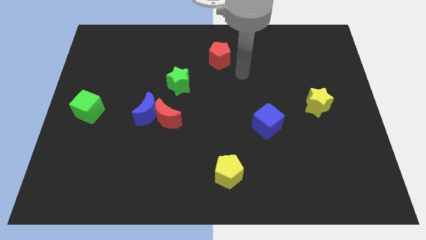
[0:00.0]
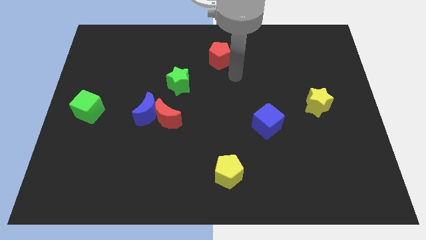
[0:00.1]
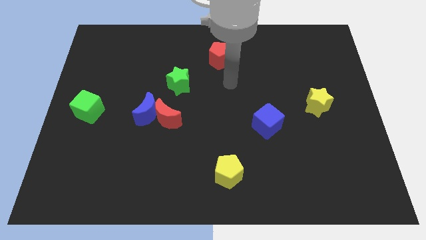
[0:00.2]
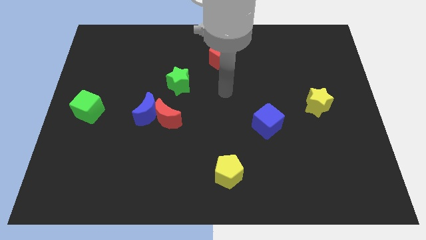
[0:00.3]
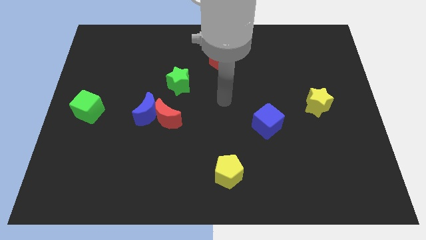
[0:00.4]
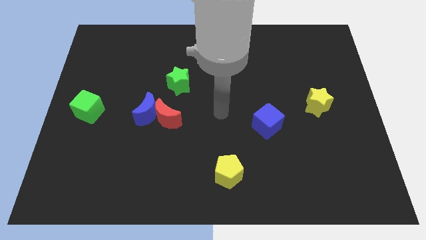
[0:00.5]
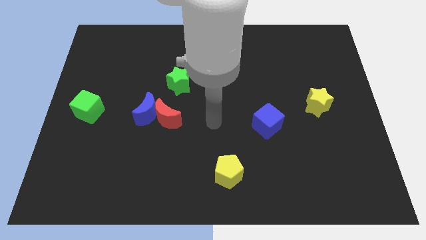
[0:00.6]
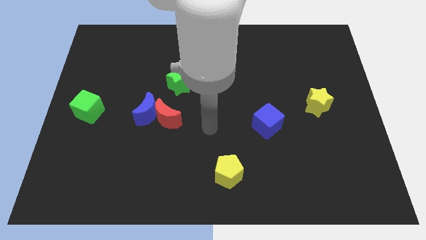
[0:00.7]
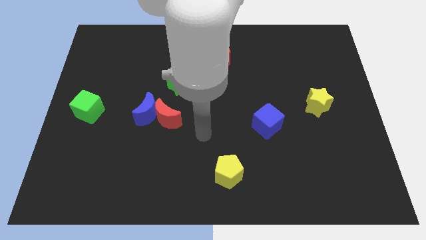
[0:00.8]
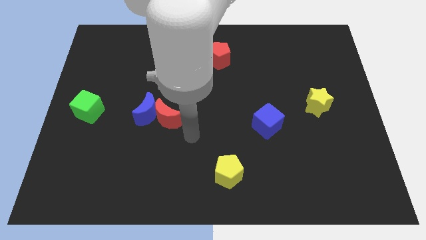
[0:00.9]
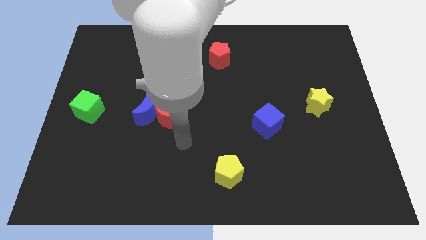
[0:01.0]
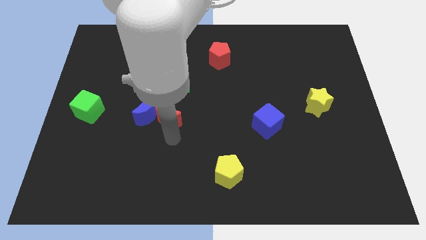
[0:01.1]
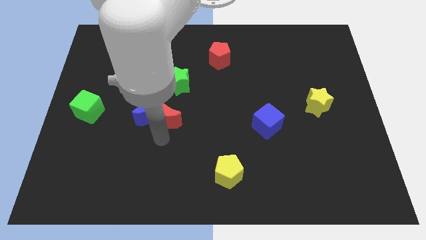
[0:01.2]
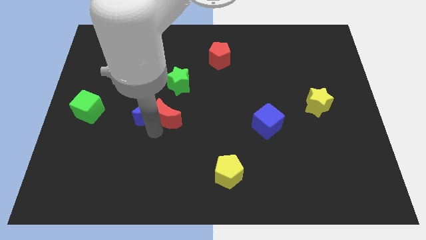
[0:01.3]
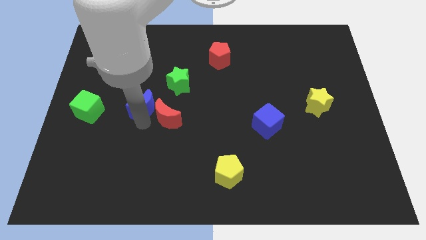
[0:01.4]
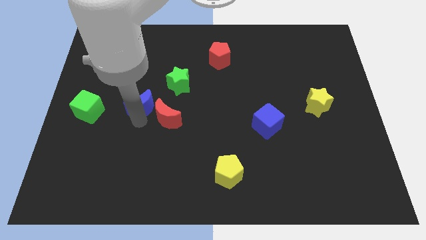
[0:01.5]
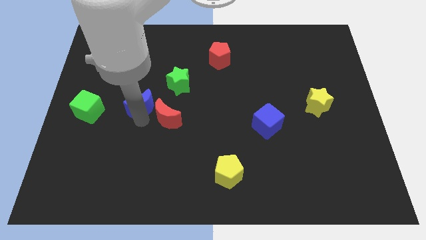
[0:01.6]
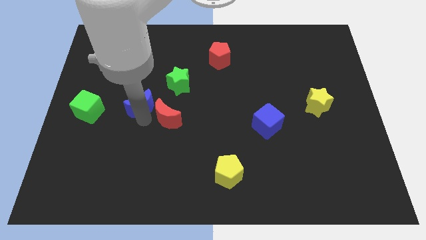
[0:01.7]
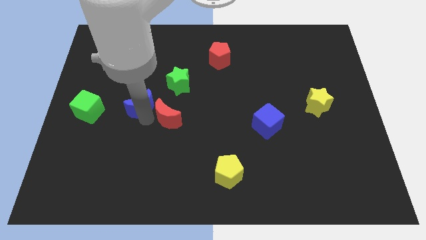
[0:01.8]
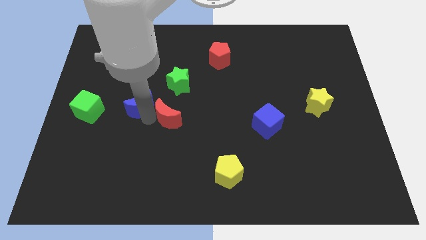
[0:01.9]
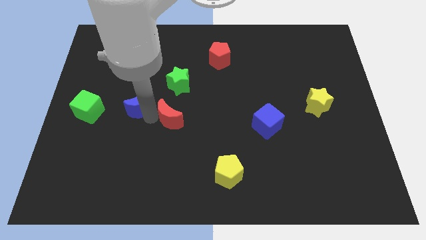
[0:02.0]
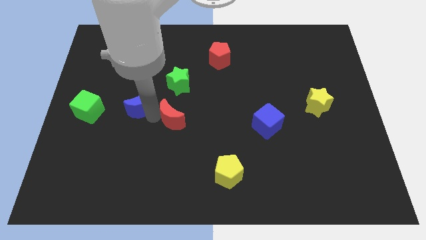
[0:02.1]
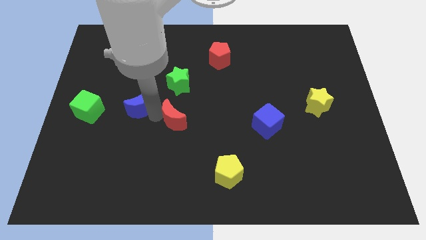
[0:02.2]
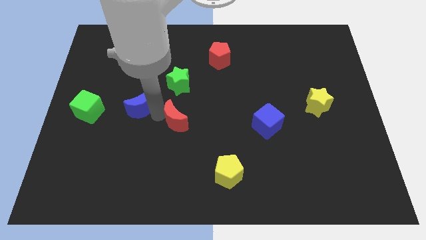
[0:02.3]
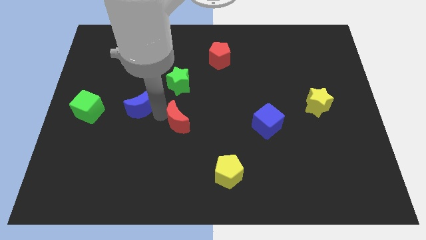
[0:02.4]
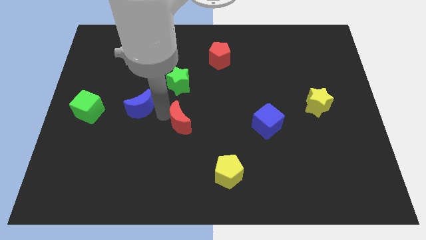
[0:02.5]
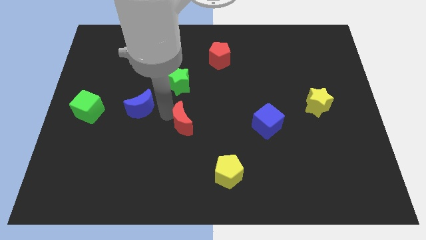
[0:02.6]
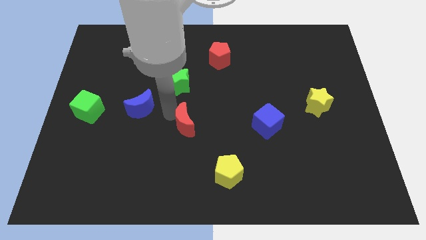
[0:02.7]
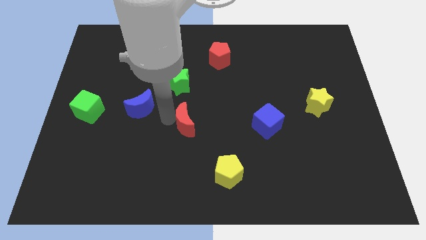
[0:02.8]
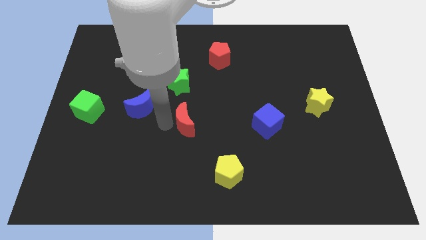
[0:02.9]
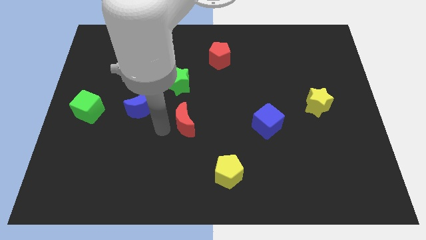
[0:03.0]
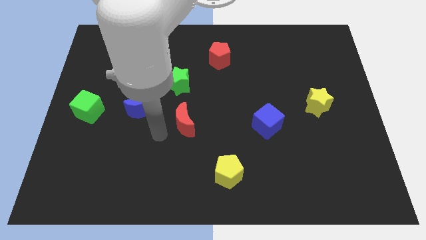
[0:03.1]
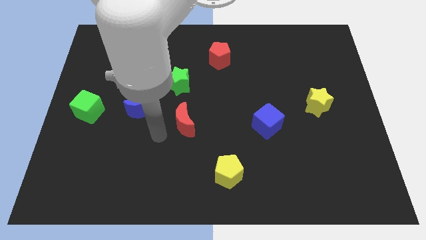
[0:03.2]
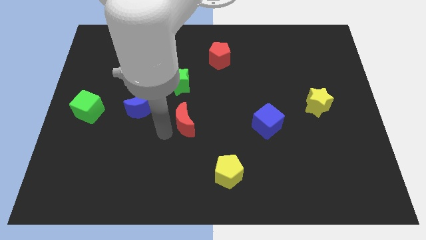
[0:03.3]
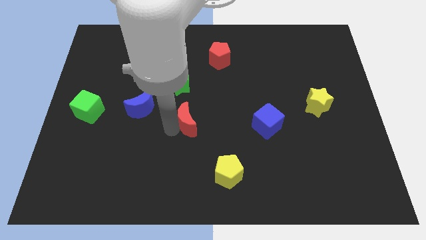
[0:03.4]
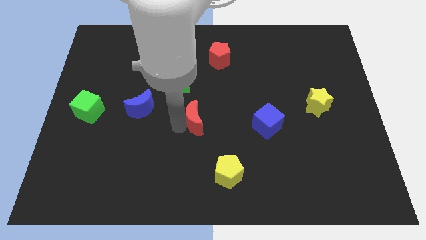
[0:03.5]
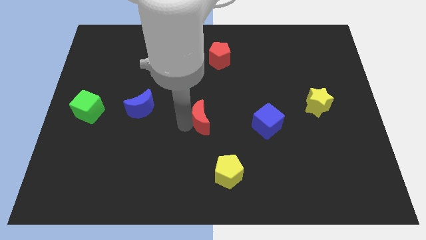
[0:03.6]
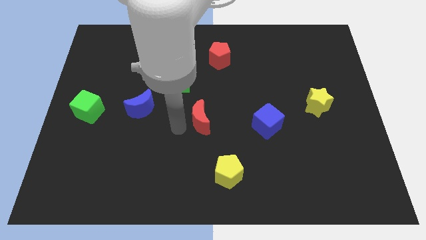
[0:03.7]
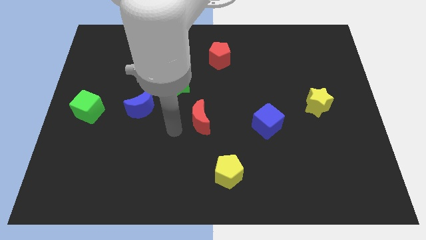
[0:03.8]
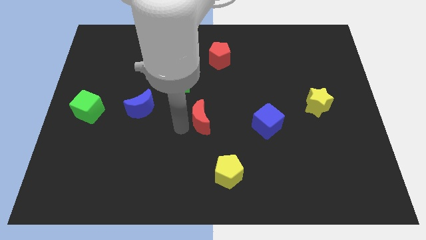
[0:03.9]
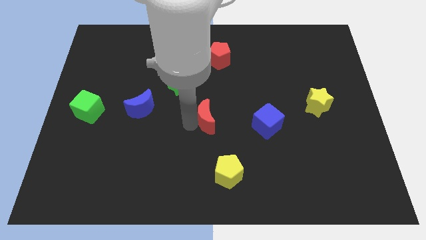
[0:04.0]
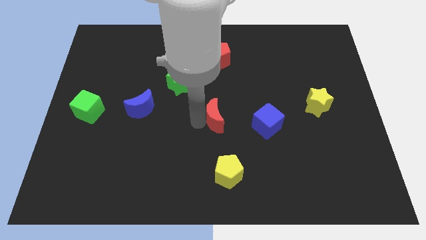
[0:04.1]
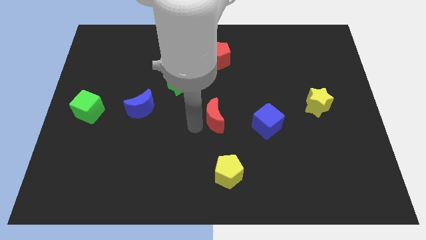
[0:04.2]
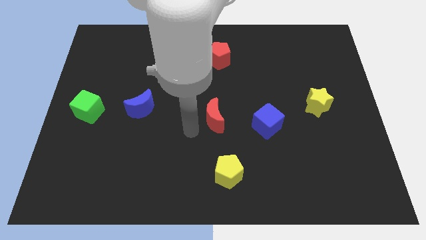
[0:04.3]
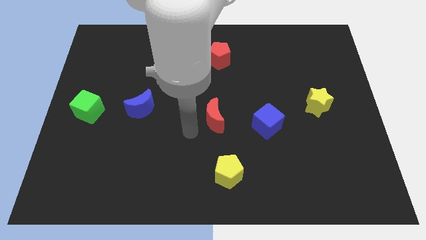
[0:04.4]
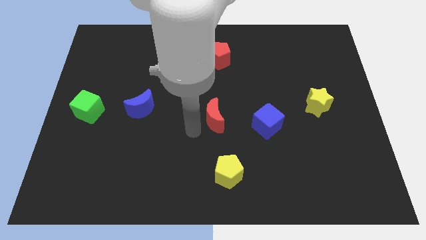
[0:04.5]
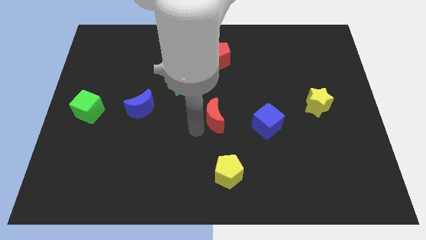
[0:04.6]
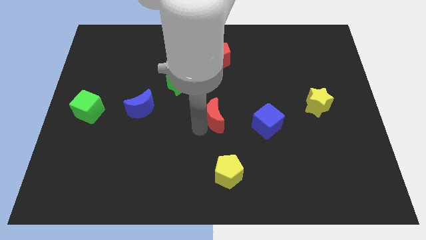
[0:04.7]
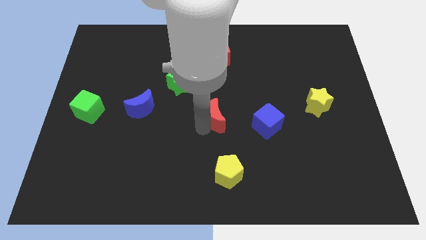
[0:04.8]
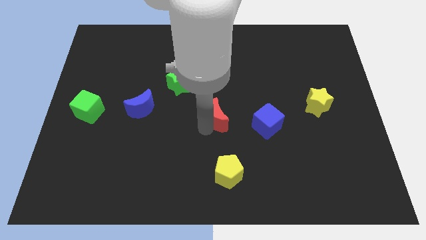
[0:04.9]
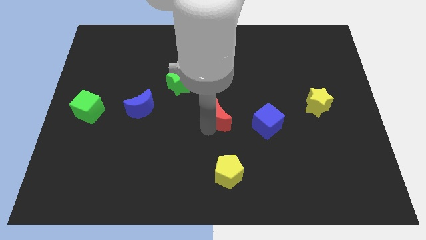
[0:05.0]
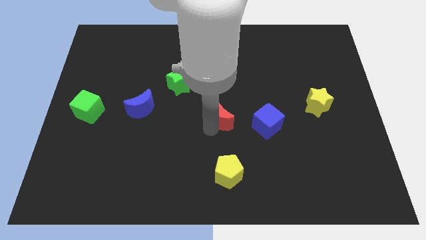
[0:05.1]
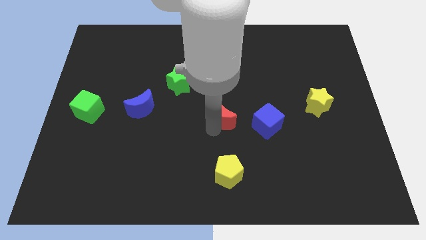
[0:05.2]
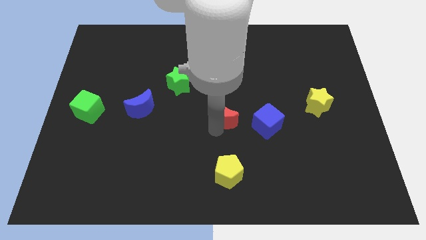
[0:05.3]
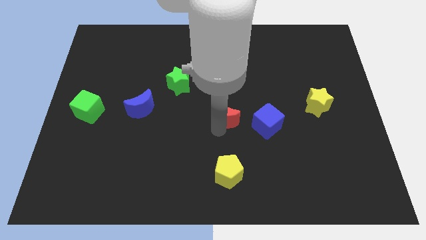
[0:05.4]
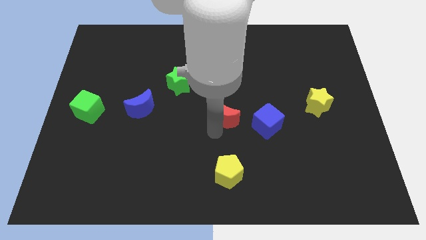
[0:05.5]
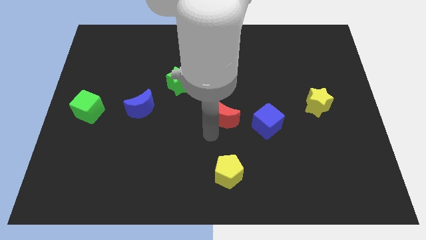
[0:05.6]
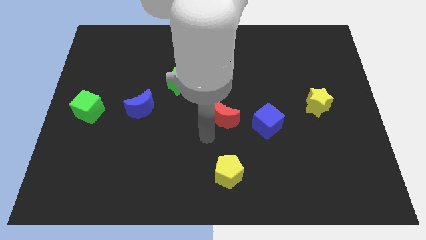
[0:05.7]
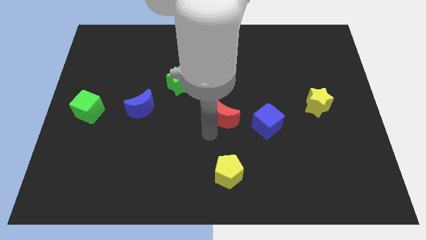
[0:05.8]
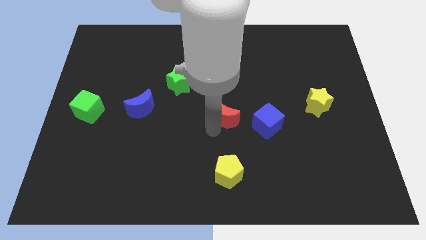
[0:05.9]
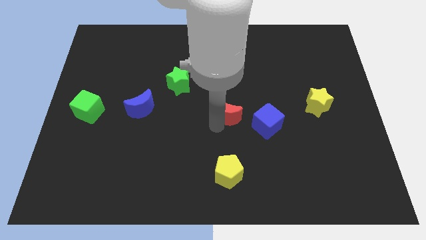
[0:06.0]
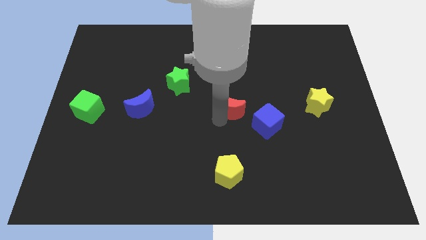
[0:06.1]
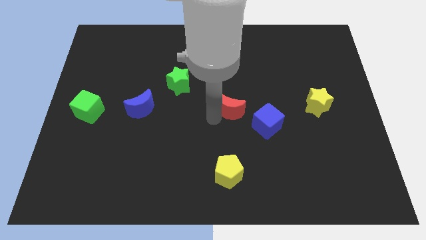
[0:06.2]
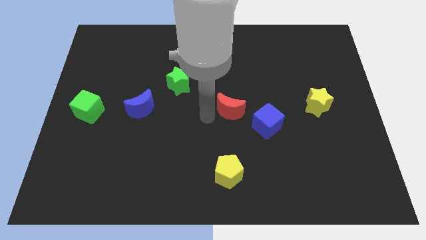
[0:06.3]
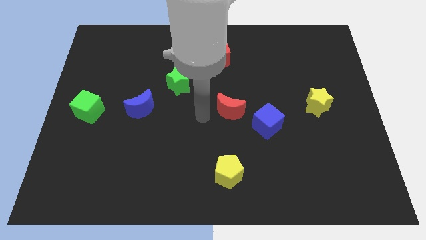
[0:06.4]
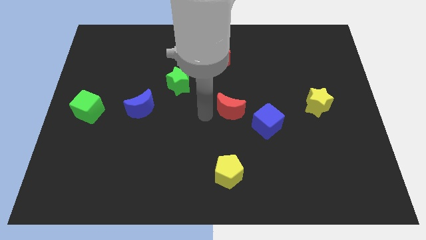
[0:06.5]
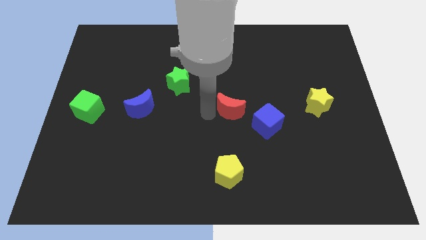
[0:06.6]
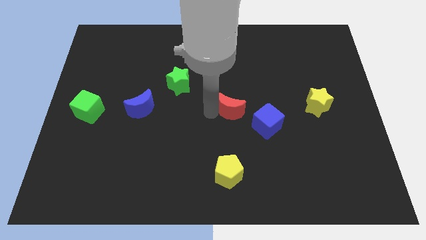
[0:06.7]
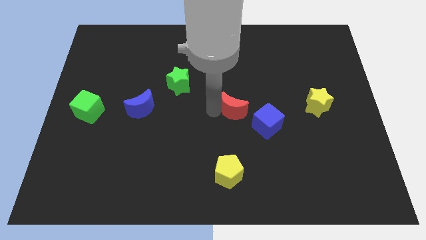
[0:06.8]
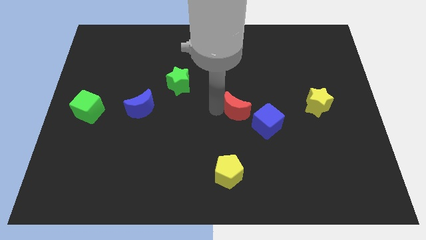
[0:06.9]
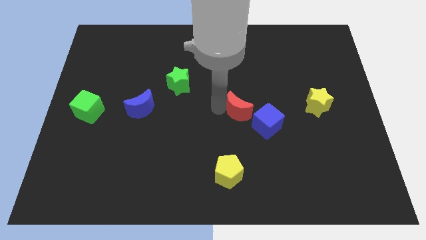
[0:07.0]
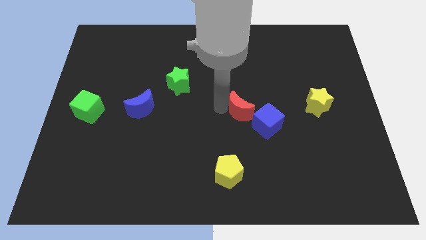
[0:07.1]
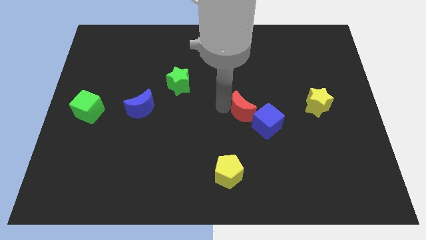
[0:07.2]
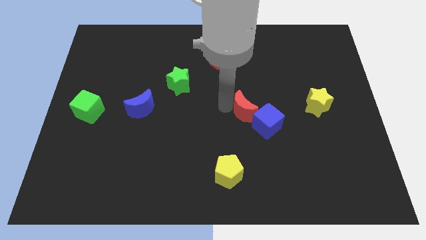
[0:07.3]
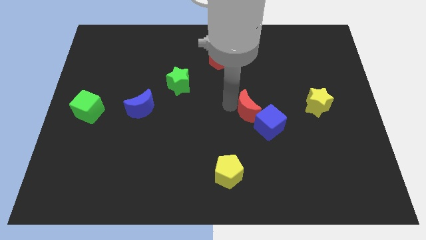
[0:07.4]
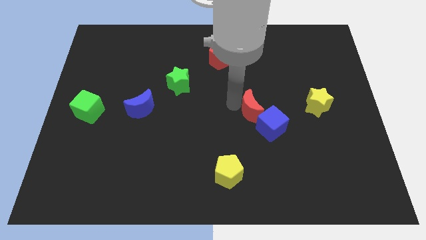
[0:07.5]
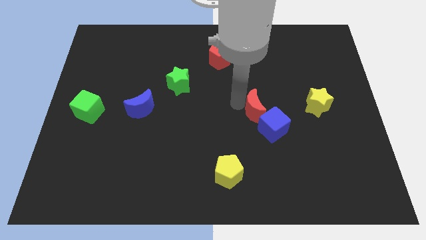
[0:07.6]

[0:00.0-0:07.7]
push the red moon to the right

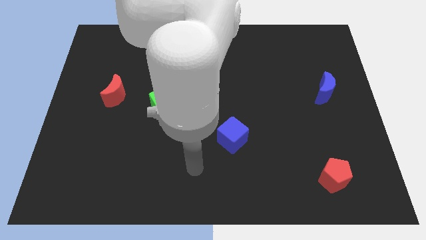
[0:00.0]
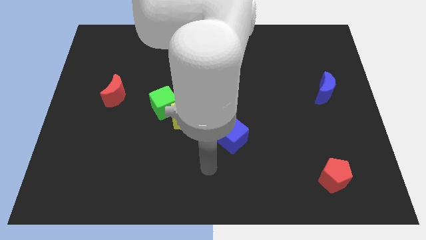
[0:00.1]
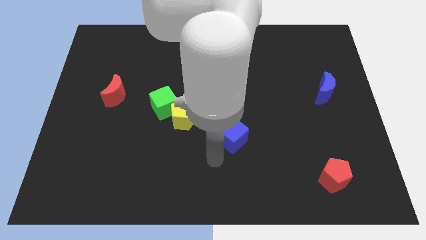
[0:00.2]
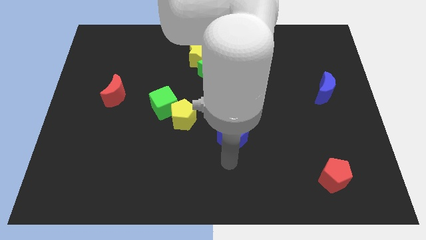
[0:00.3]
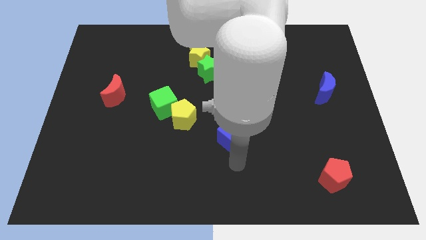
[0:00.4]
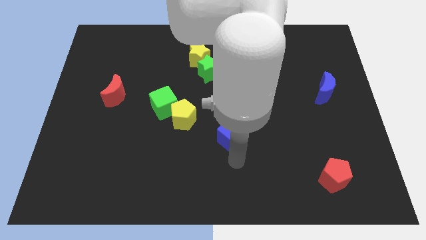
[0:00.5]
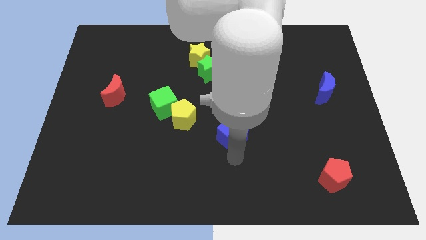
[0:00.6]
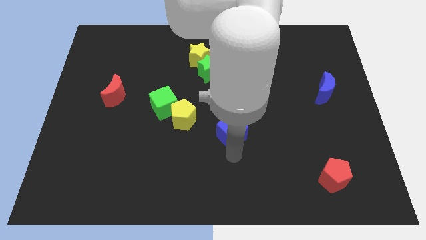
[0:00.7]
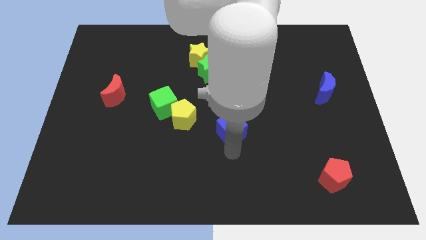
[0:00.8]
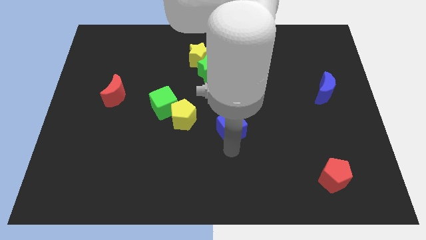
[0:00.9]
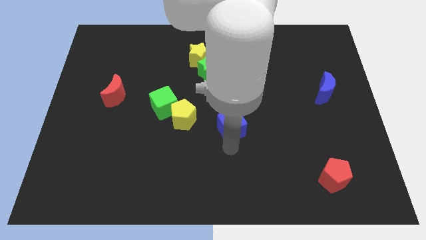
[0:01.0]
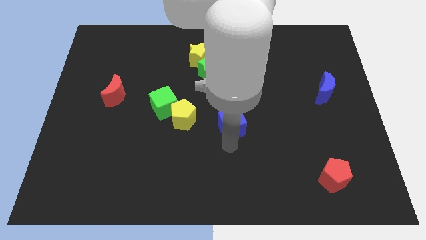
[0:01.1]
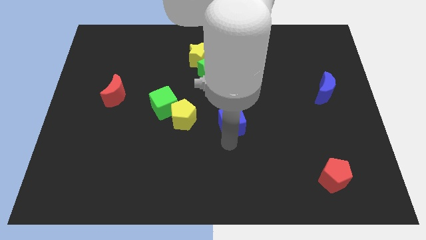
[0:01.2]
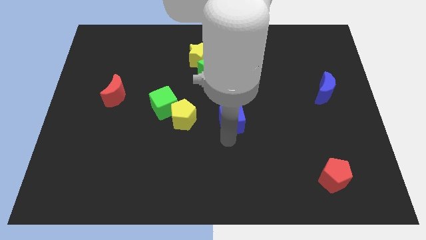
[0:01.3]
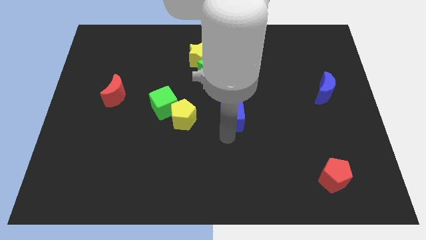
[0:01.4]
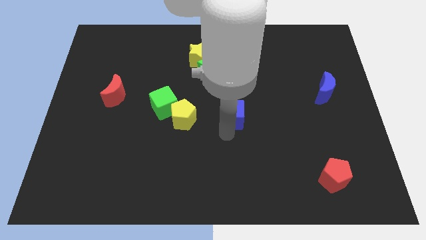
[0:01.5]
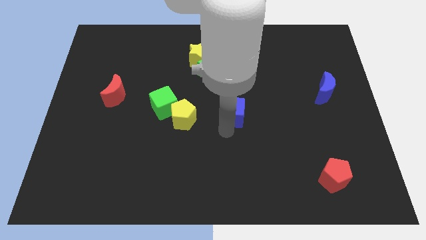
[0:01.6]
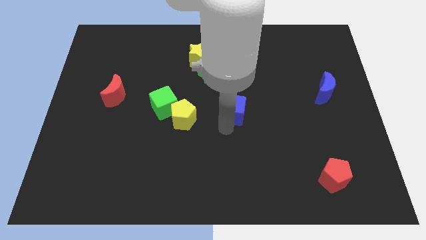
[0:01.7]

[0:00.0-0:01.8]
push the blue cube slightly upwards
